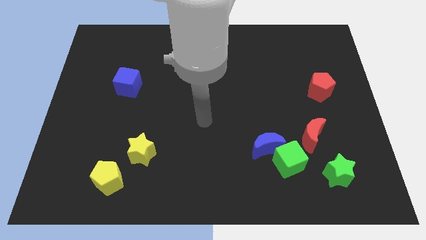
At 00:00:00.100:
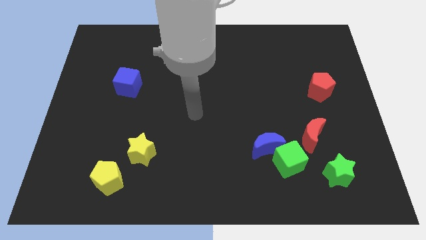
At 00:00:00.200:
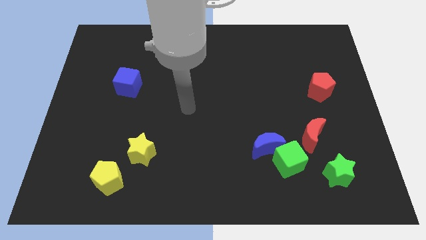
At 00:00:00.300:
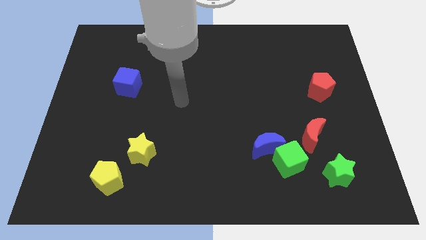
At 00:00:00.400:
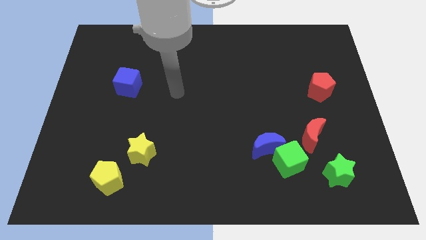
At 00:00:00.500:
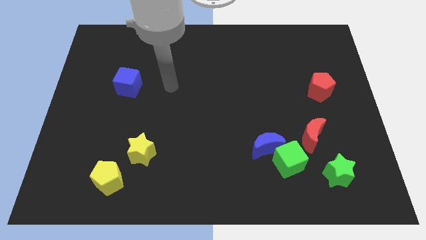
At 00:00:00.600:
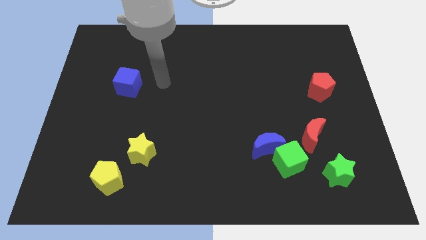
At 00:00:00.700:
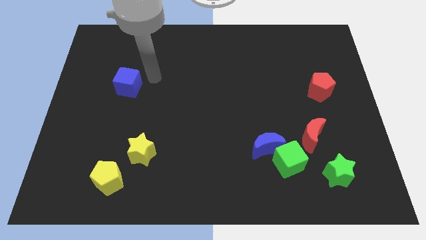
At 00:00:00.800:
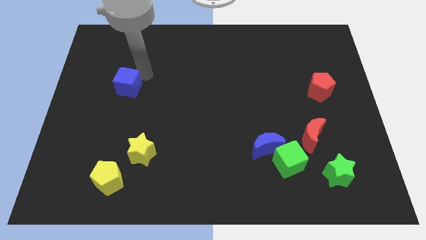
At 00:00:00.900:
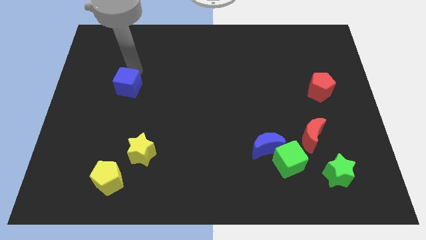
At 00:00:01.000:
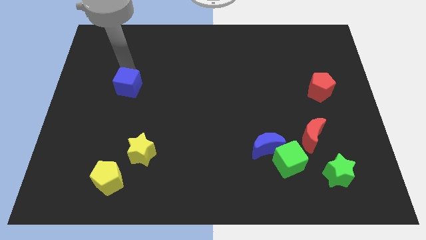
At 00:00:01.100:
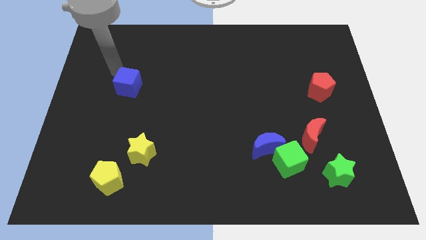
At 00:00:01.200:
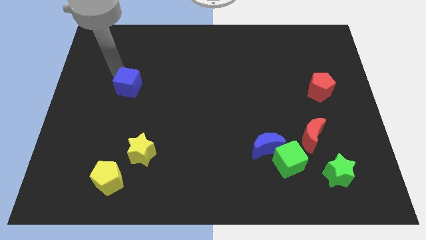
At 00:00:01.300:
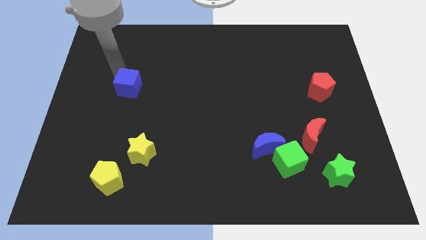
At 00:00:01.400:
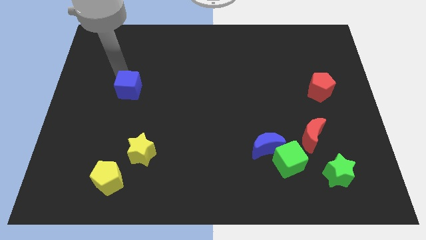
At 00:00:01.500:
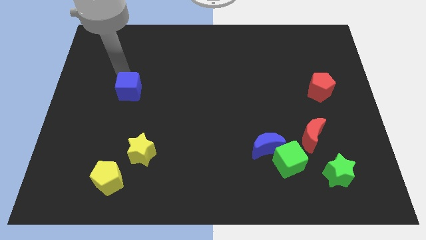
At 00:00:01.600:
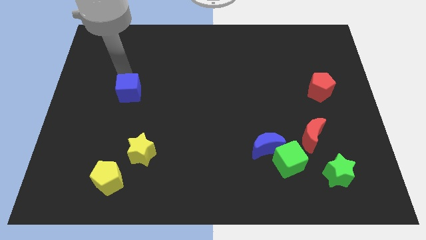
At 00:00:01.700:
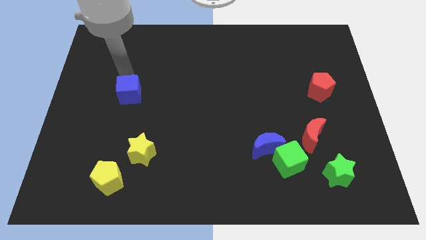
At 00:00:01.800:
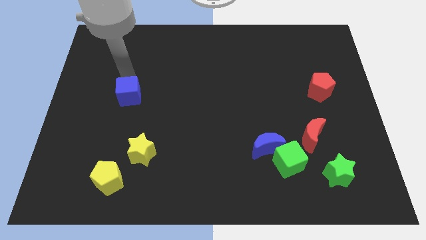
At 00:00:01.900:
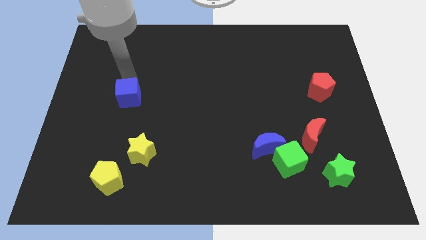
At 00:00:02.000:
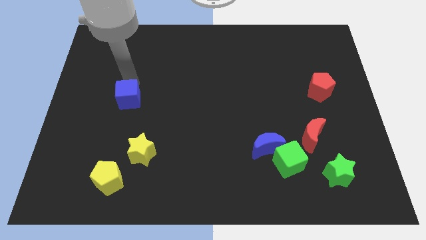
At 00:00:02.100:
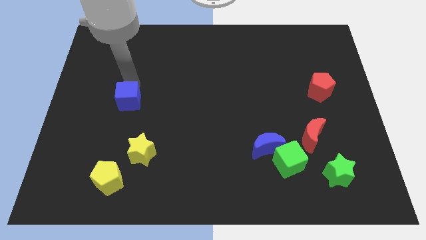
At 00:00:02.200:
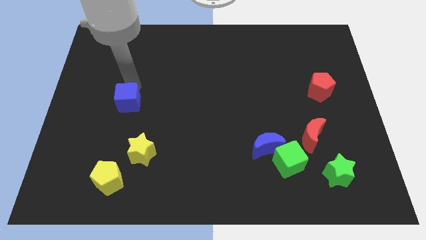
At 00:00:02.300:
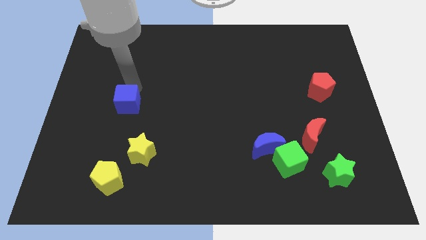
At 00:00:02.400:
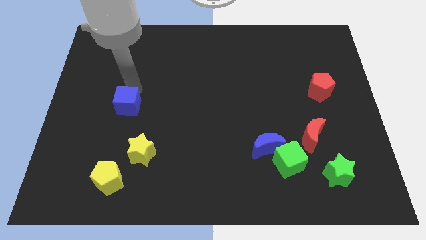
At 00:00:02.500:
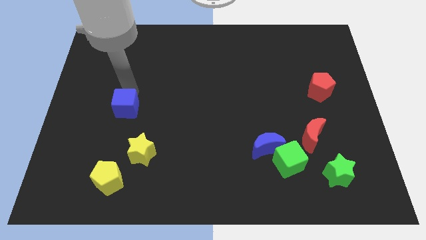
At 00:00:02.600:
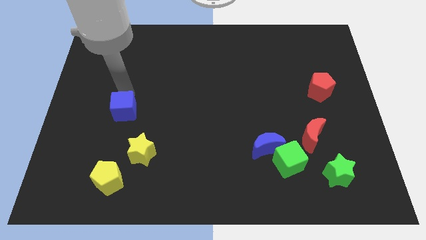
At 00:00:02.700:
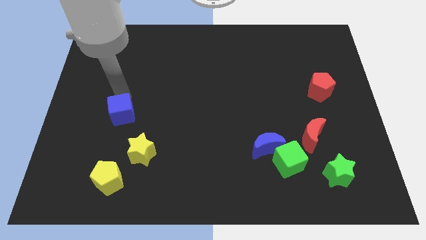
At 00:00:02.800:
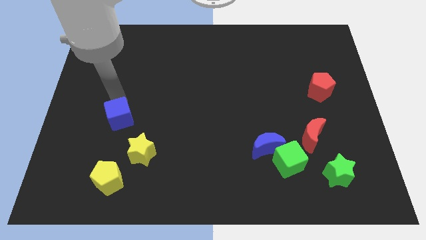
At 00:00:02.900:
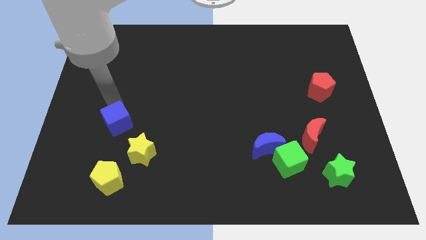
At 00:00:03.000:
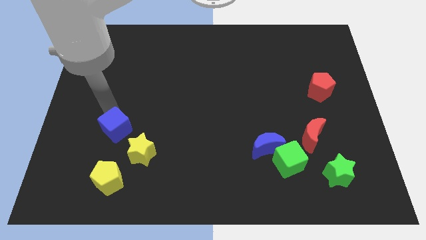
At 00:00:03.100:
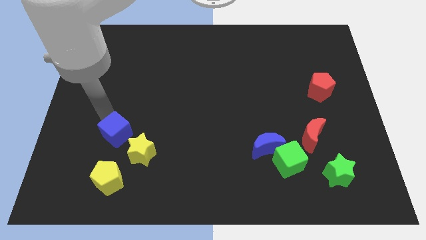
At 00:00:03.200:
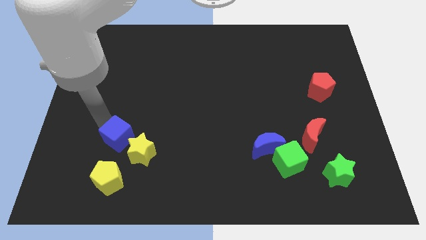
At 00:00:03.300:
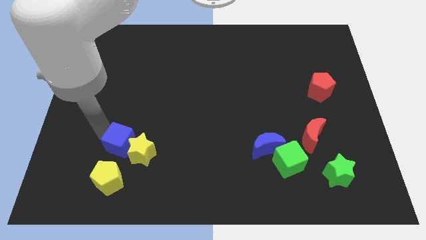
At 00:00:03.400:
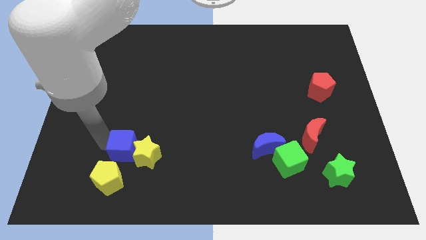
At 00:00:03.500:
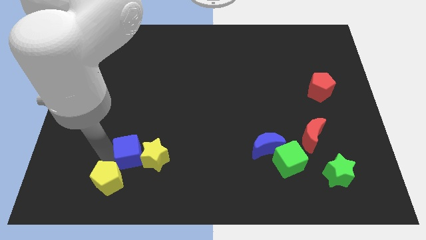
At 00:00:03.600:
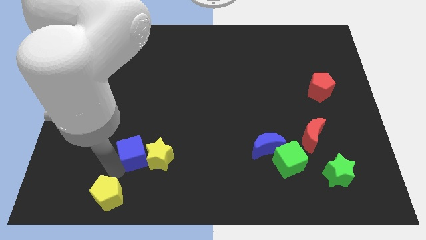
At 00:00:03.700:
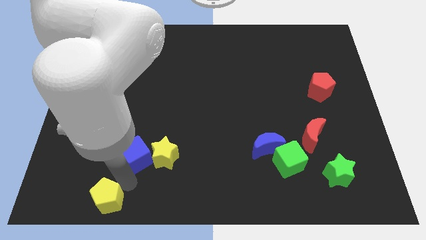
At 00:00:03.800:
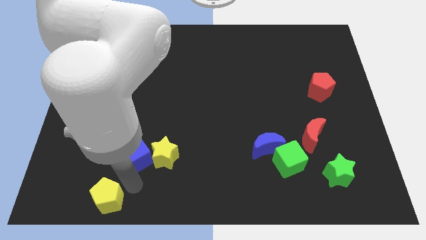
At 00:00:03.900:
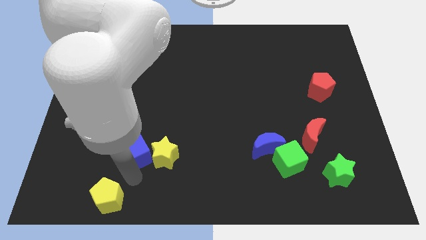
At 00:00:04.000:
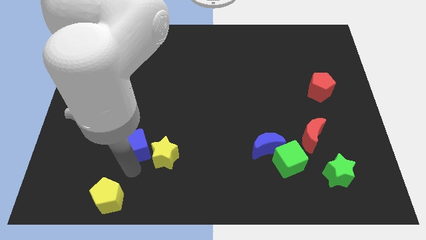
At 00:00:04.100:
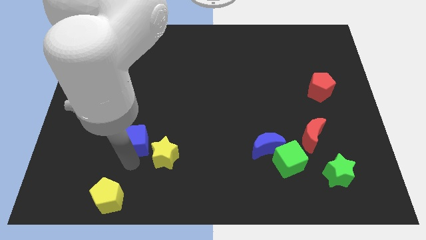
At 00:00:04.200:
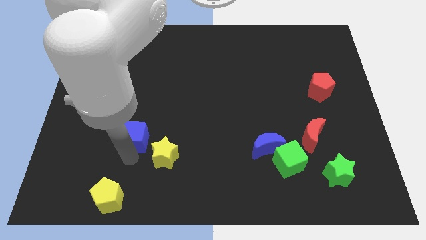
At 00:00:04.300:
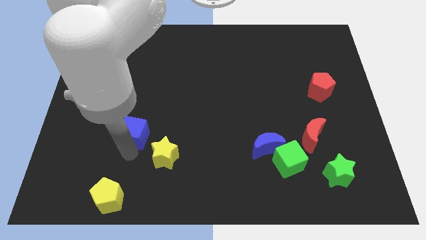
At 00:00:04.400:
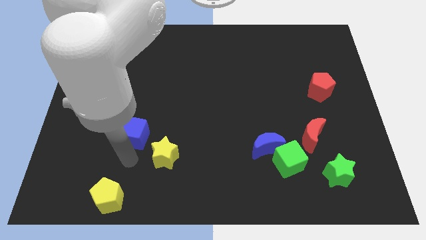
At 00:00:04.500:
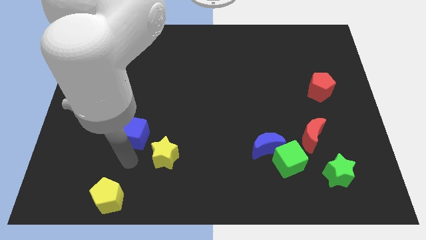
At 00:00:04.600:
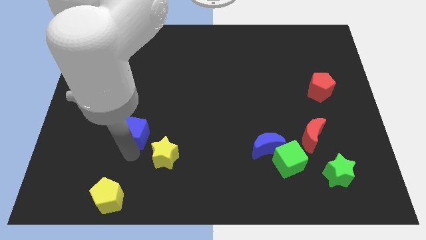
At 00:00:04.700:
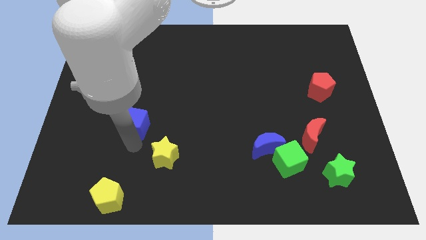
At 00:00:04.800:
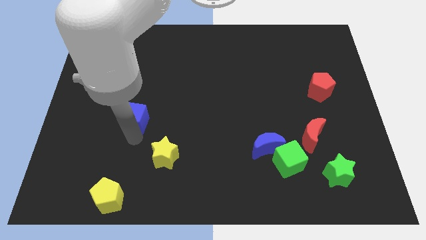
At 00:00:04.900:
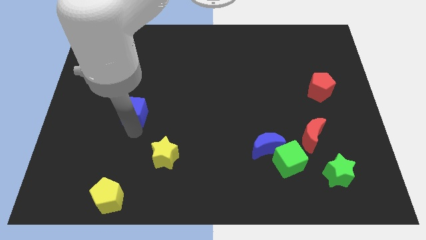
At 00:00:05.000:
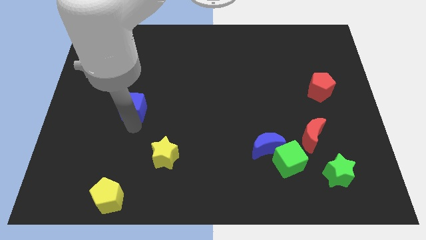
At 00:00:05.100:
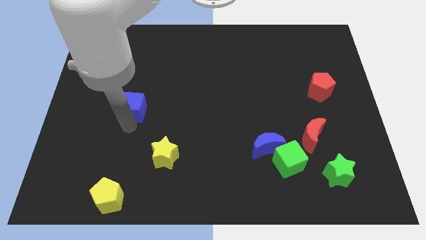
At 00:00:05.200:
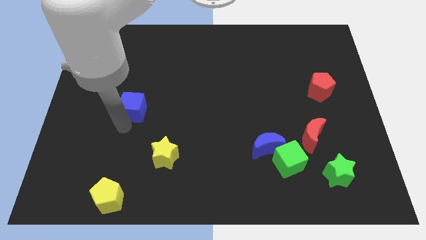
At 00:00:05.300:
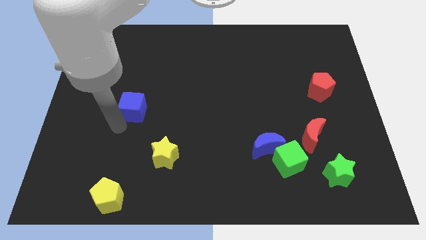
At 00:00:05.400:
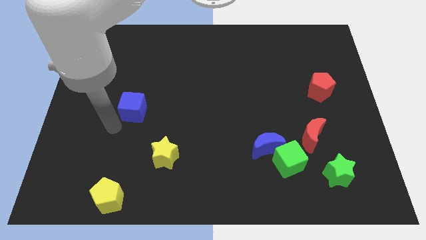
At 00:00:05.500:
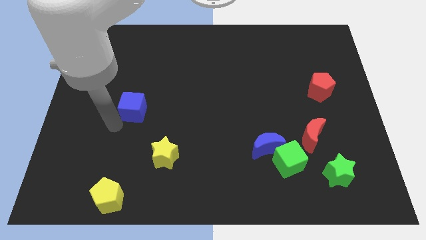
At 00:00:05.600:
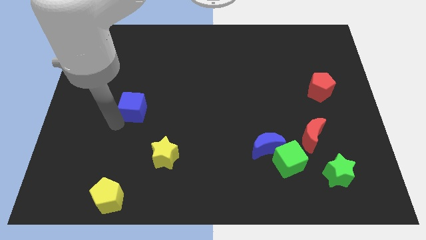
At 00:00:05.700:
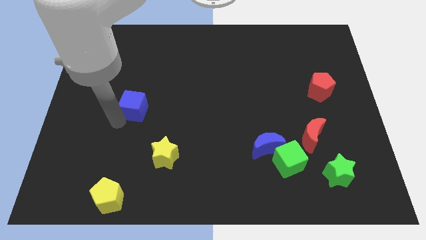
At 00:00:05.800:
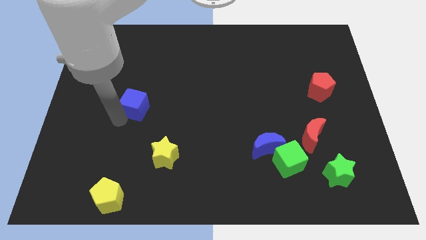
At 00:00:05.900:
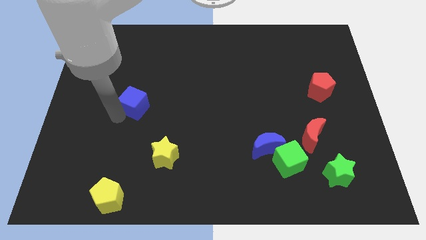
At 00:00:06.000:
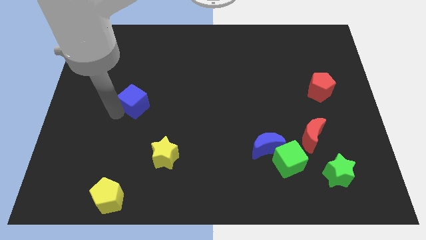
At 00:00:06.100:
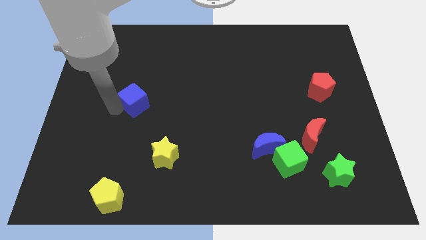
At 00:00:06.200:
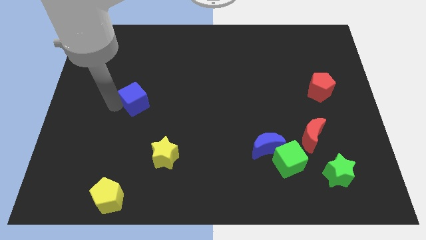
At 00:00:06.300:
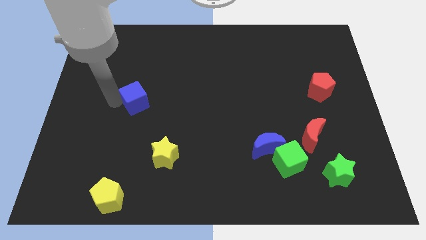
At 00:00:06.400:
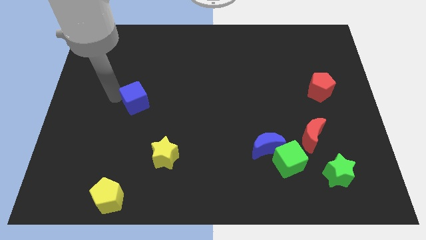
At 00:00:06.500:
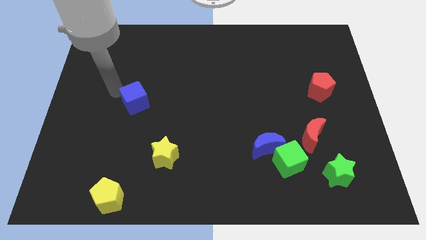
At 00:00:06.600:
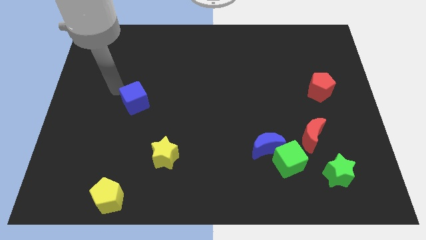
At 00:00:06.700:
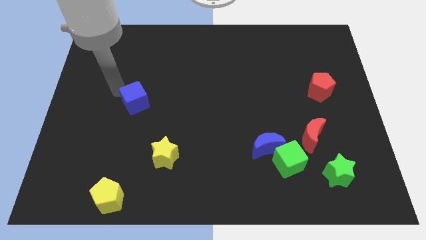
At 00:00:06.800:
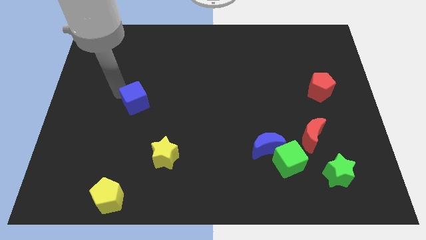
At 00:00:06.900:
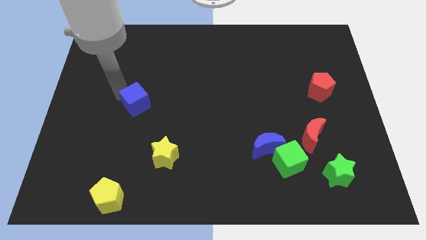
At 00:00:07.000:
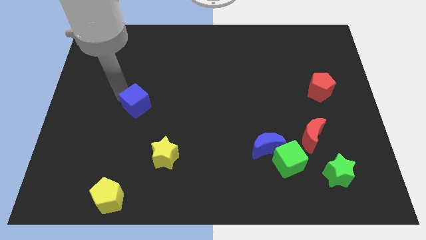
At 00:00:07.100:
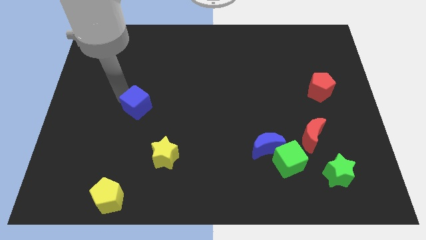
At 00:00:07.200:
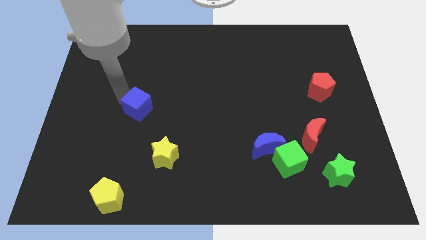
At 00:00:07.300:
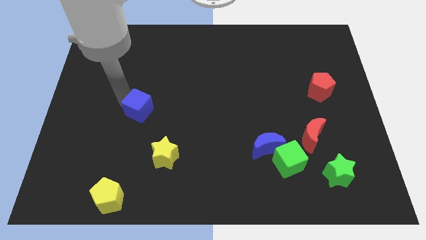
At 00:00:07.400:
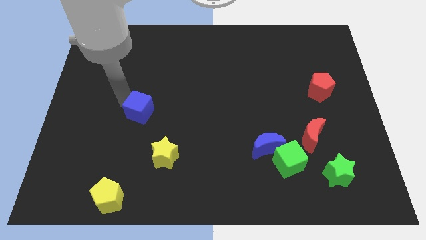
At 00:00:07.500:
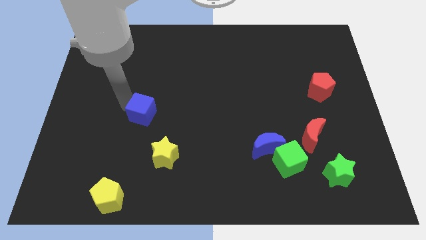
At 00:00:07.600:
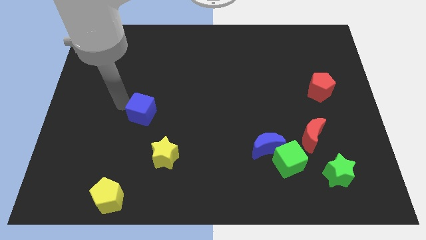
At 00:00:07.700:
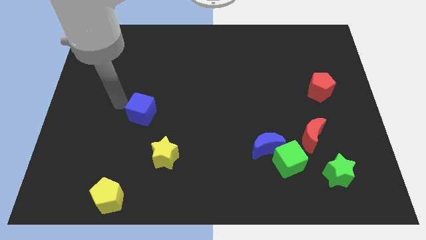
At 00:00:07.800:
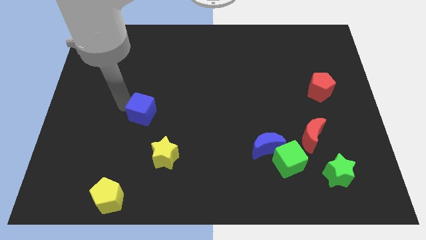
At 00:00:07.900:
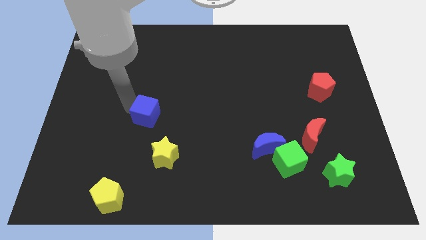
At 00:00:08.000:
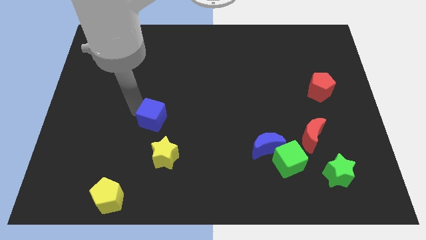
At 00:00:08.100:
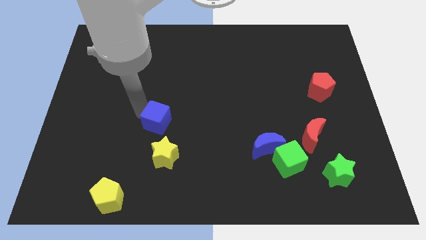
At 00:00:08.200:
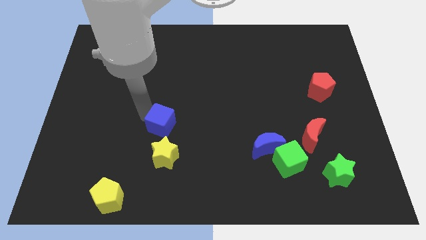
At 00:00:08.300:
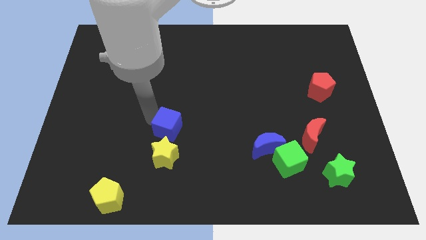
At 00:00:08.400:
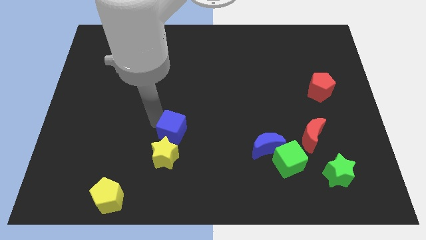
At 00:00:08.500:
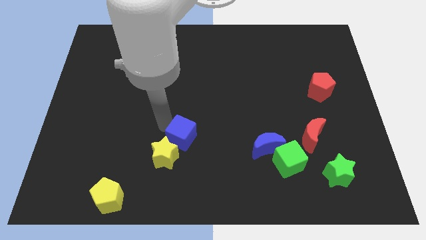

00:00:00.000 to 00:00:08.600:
push the blue cube downwards and right diagonally
